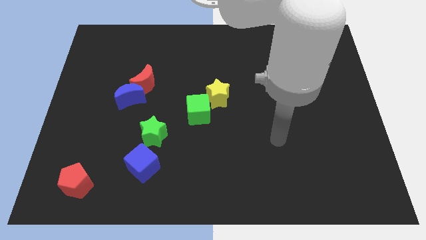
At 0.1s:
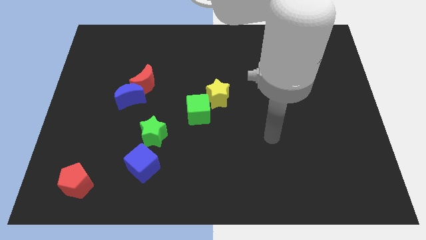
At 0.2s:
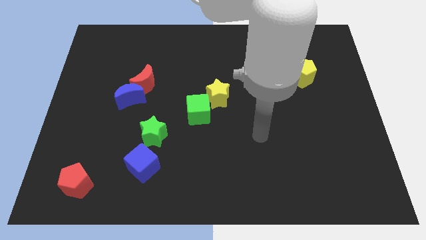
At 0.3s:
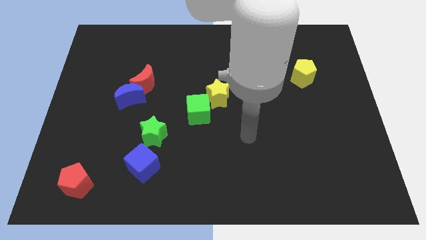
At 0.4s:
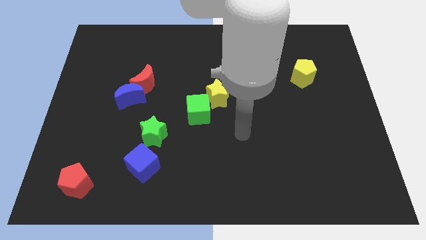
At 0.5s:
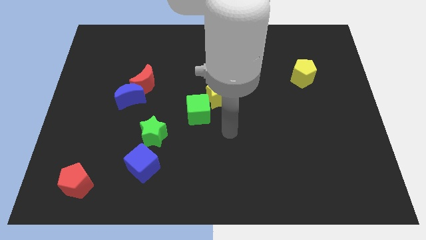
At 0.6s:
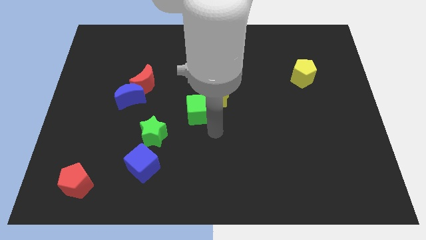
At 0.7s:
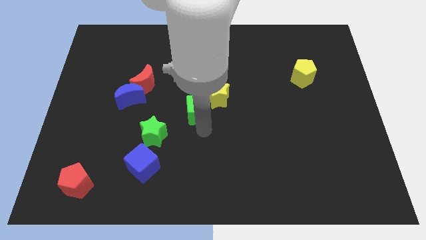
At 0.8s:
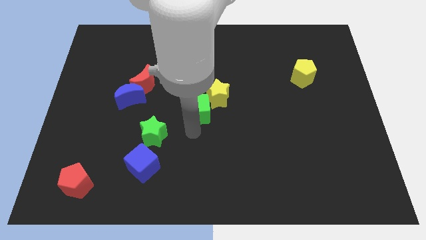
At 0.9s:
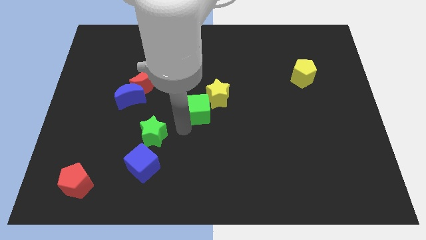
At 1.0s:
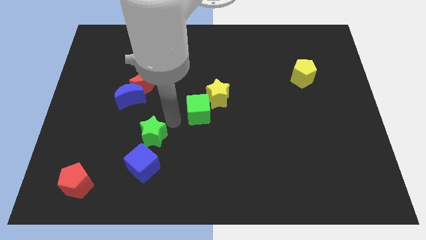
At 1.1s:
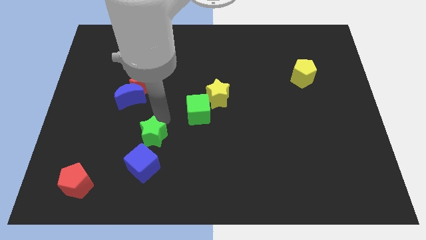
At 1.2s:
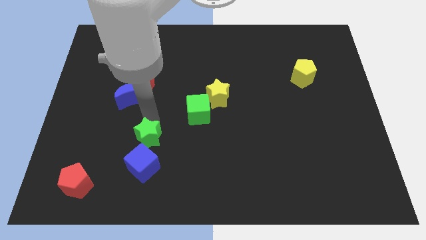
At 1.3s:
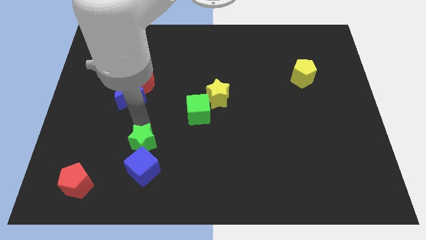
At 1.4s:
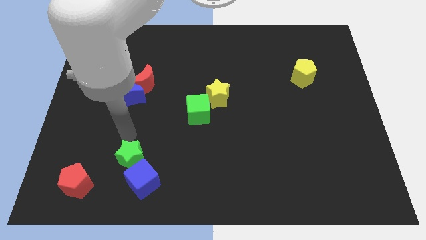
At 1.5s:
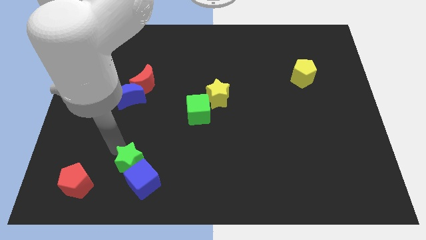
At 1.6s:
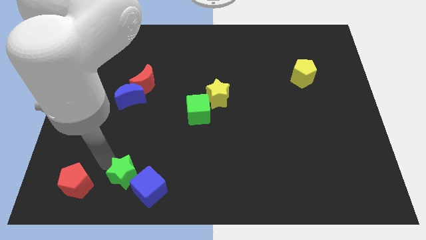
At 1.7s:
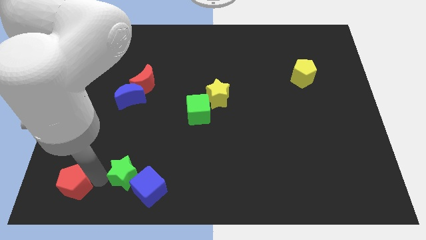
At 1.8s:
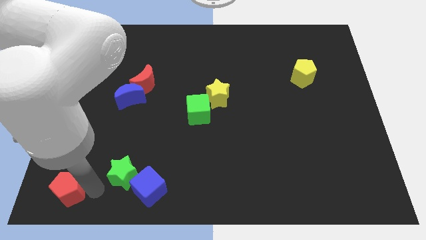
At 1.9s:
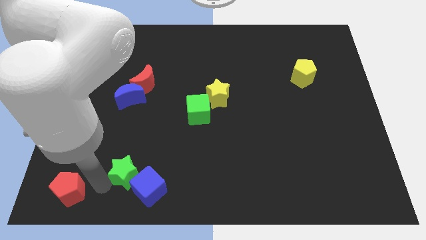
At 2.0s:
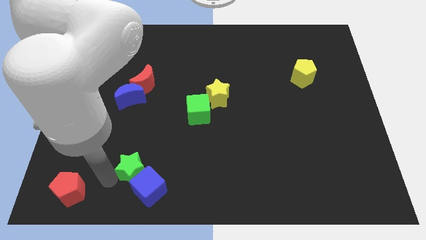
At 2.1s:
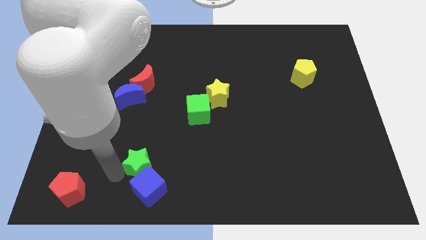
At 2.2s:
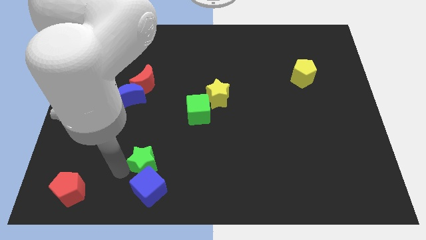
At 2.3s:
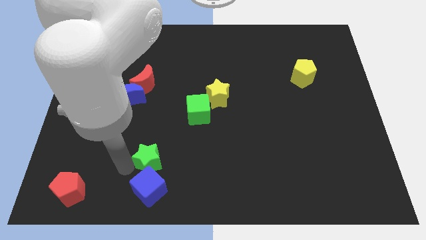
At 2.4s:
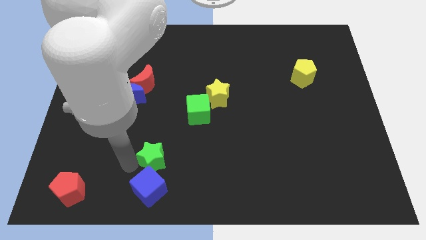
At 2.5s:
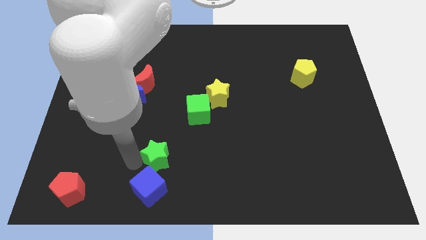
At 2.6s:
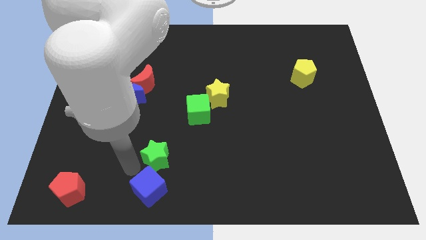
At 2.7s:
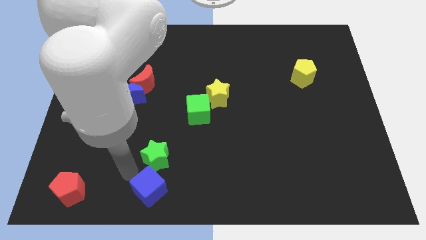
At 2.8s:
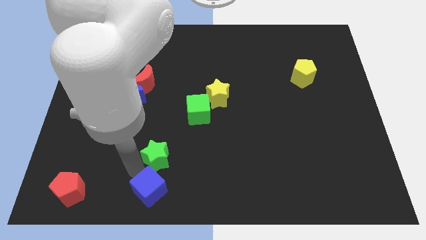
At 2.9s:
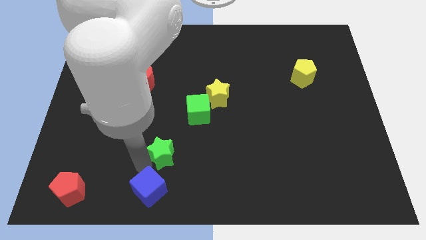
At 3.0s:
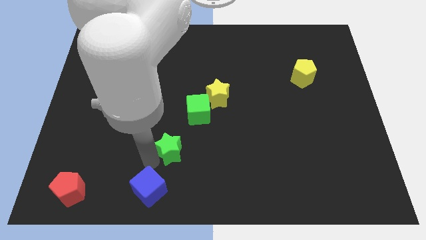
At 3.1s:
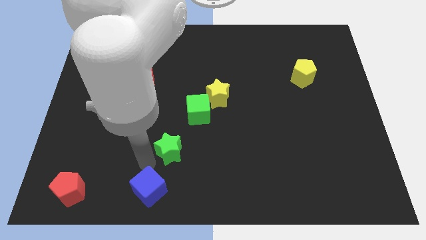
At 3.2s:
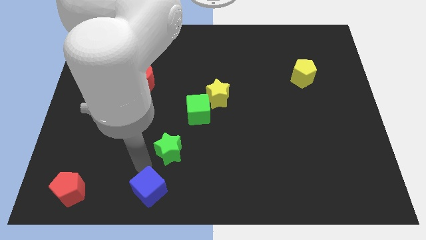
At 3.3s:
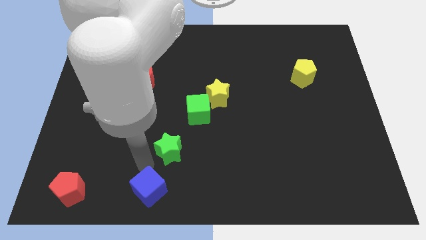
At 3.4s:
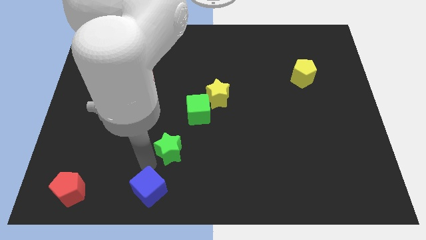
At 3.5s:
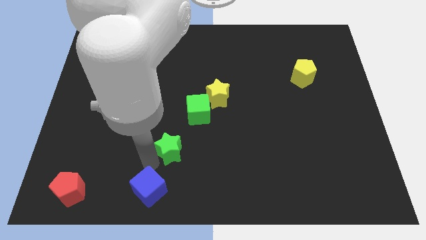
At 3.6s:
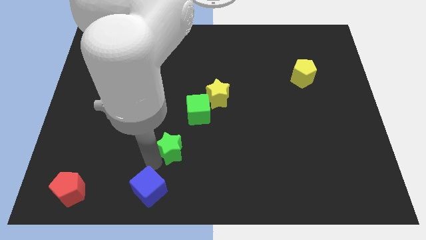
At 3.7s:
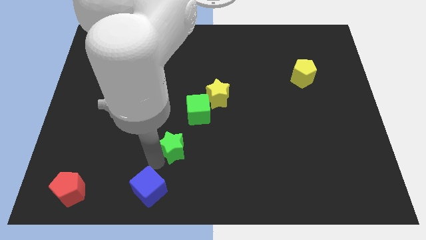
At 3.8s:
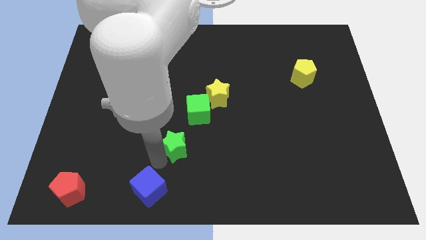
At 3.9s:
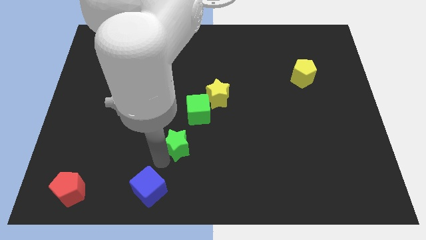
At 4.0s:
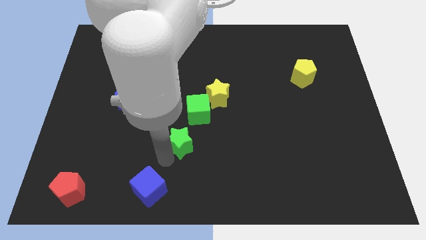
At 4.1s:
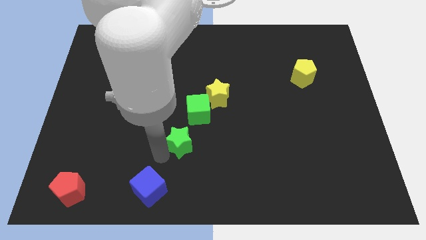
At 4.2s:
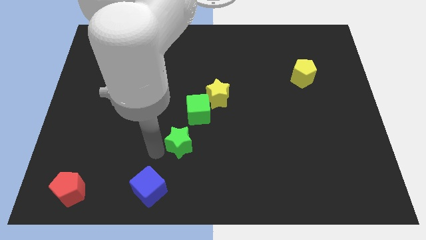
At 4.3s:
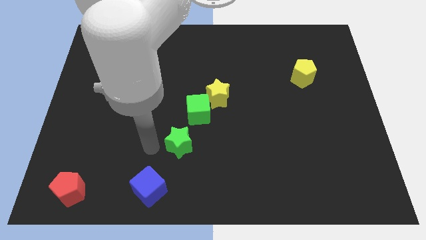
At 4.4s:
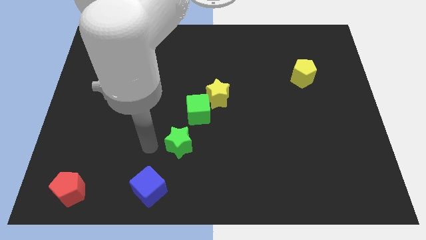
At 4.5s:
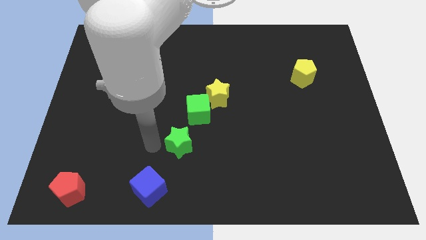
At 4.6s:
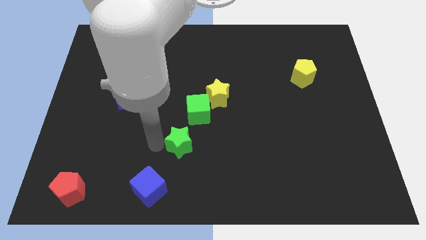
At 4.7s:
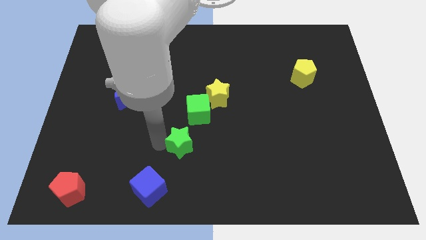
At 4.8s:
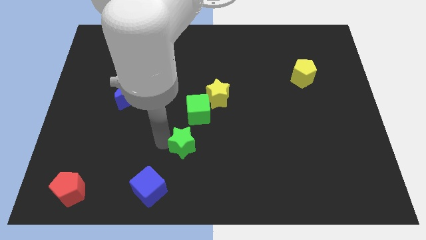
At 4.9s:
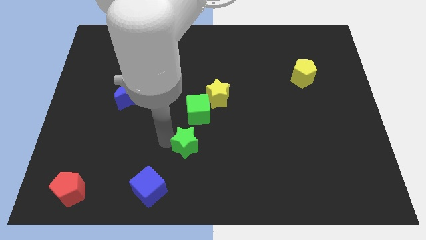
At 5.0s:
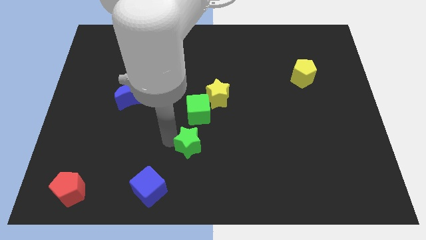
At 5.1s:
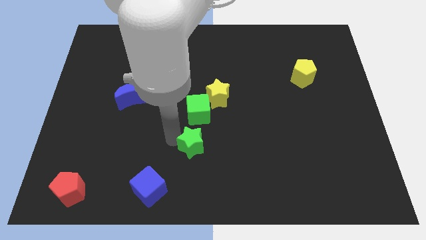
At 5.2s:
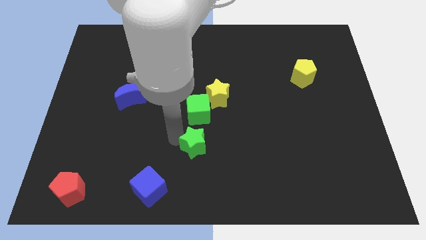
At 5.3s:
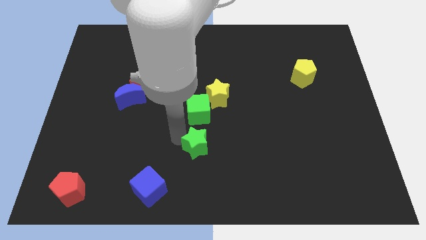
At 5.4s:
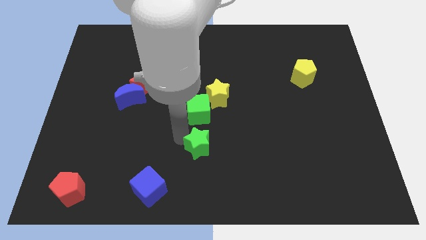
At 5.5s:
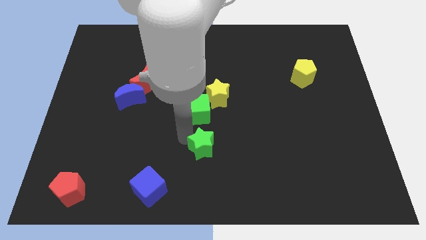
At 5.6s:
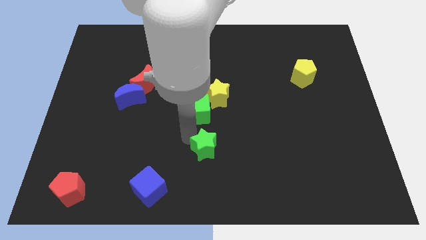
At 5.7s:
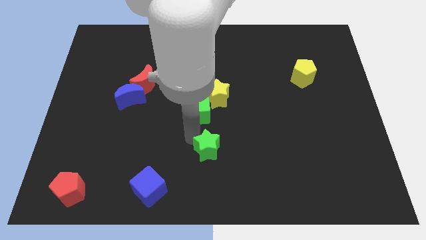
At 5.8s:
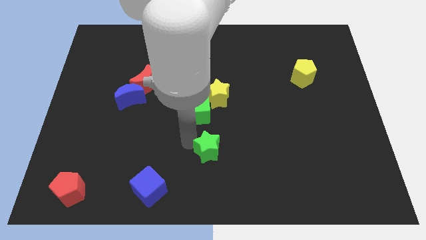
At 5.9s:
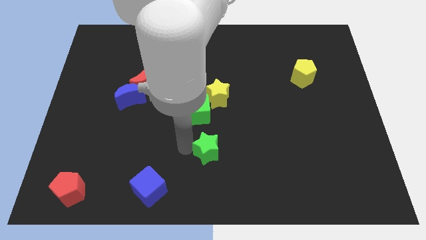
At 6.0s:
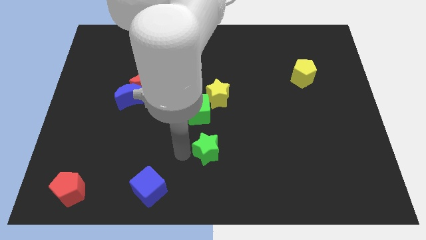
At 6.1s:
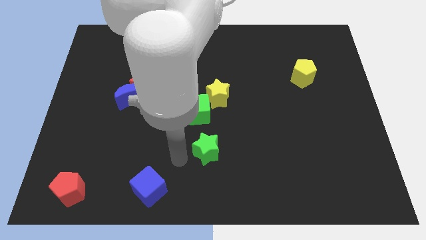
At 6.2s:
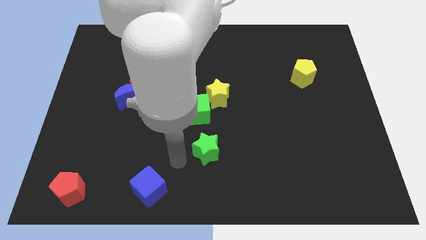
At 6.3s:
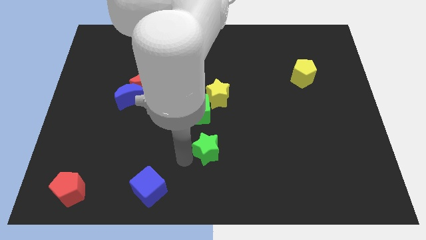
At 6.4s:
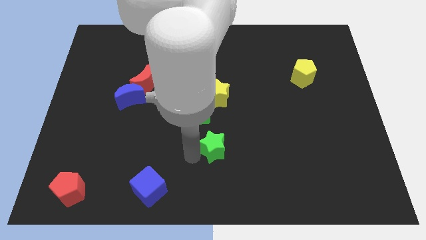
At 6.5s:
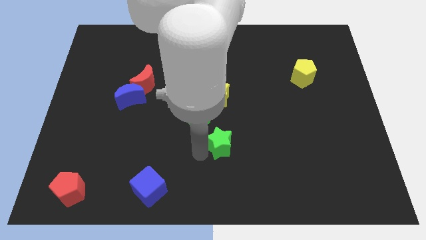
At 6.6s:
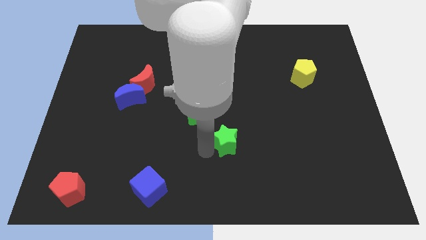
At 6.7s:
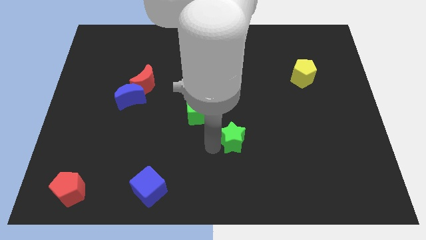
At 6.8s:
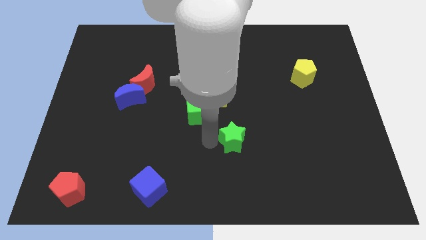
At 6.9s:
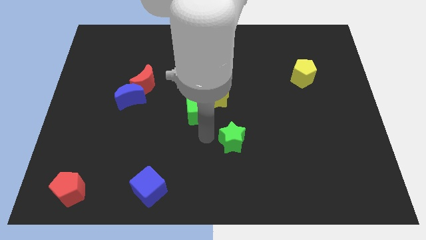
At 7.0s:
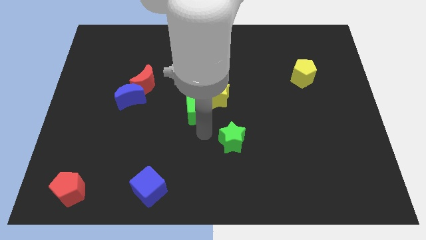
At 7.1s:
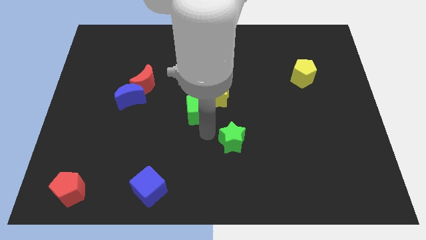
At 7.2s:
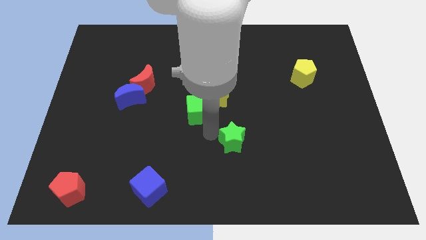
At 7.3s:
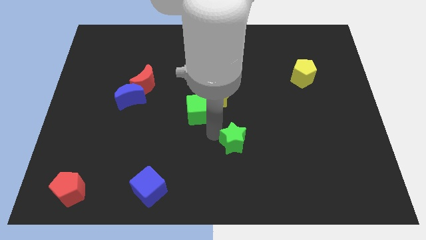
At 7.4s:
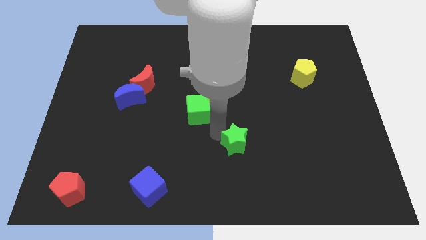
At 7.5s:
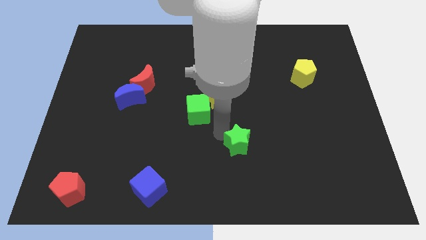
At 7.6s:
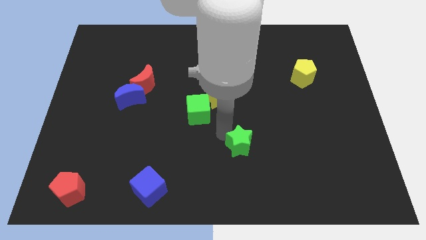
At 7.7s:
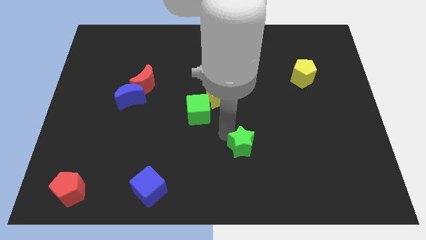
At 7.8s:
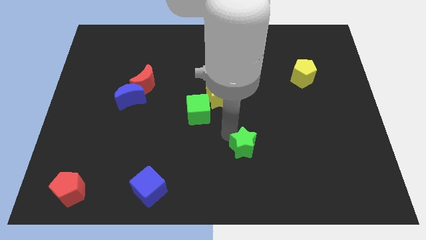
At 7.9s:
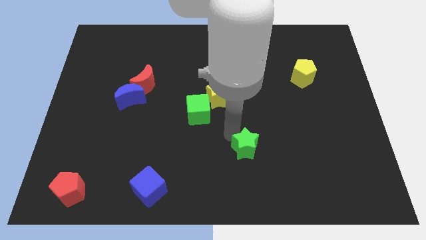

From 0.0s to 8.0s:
push the green star to the right

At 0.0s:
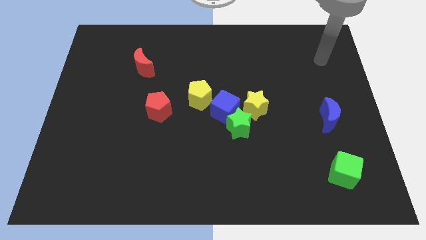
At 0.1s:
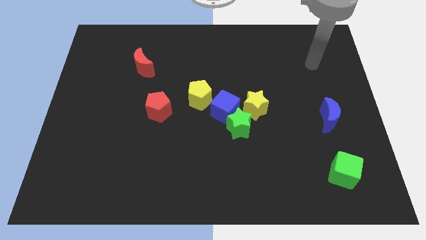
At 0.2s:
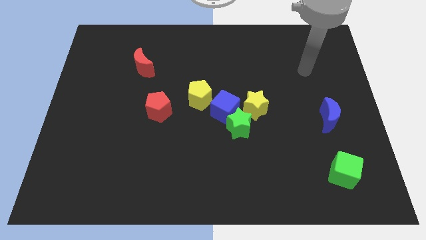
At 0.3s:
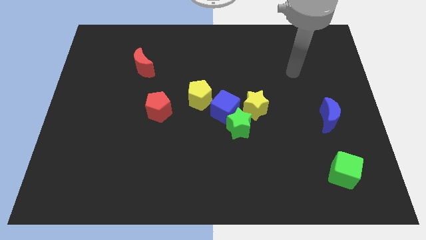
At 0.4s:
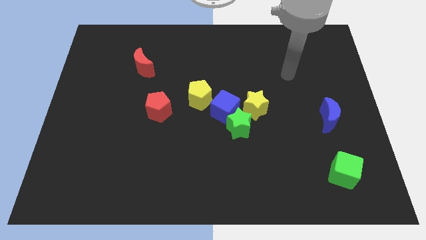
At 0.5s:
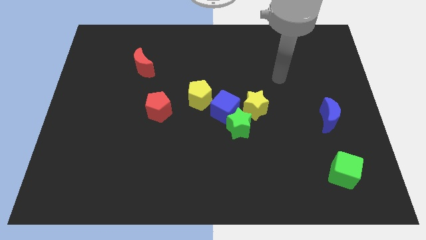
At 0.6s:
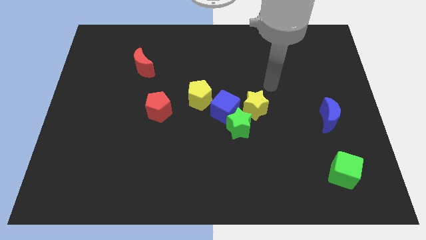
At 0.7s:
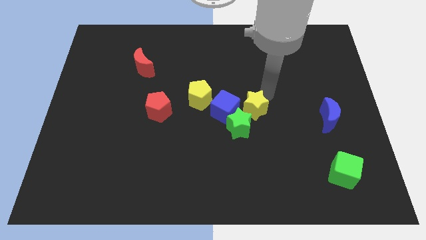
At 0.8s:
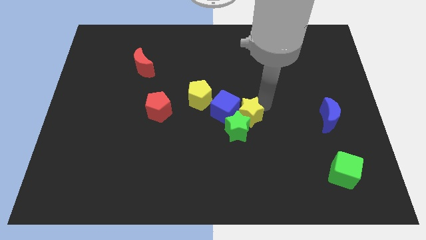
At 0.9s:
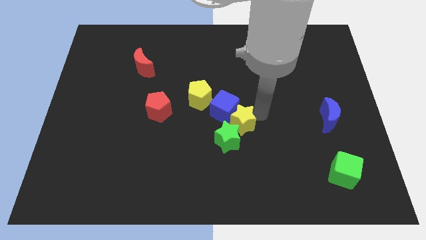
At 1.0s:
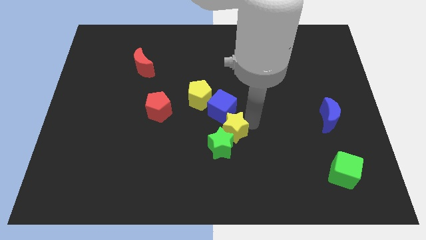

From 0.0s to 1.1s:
move the green star diagonally down and to the left slightly
